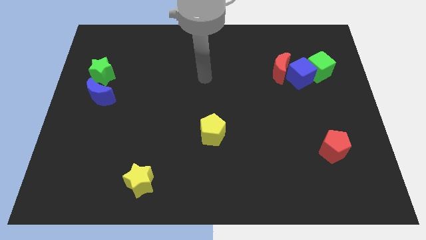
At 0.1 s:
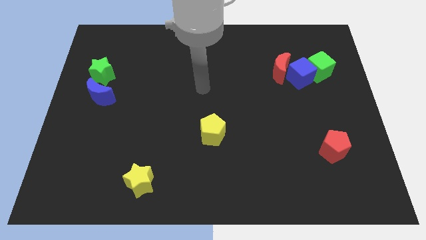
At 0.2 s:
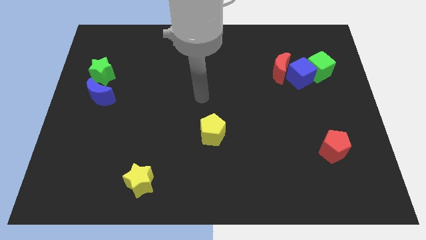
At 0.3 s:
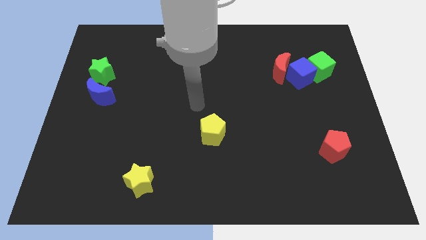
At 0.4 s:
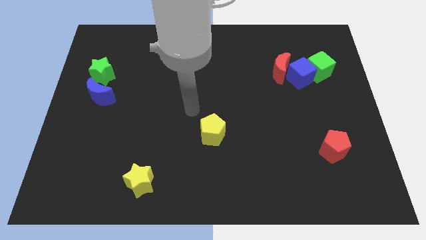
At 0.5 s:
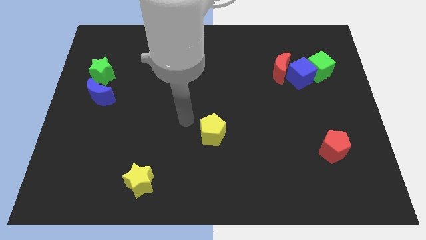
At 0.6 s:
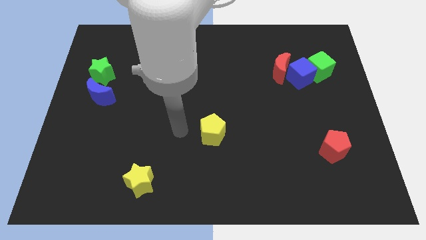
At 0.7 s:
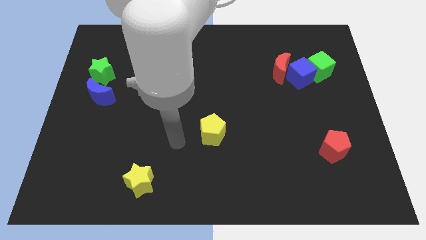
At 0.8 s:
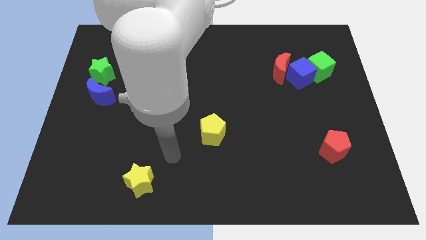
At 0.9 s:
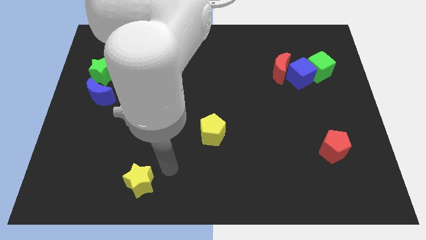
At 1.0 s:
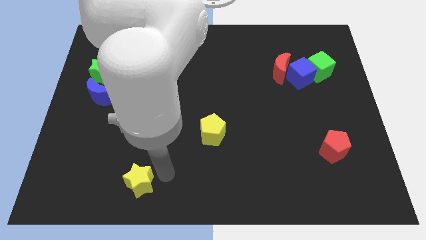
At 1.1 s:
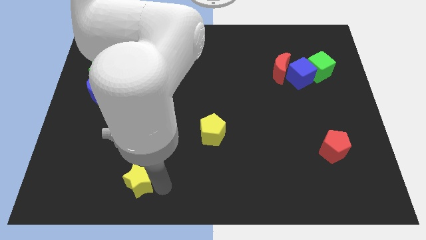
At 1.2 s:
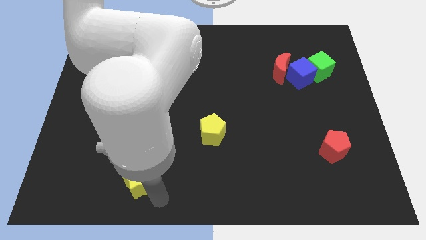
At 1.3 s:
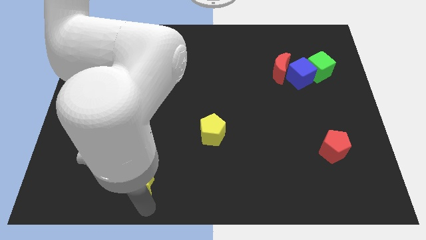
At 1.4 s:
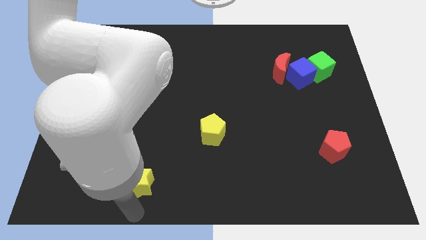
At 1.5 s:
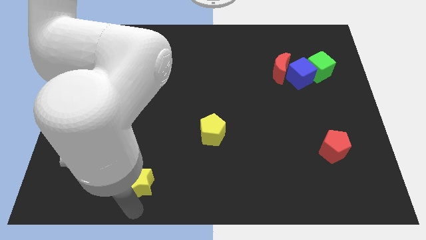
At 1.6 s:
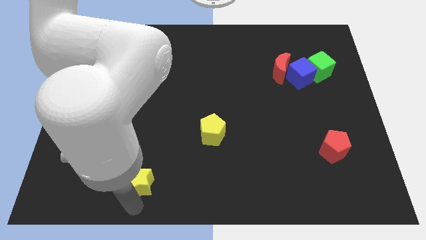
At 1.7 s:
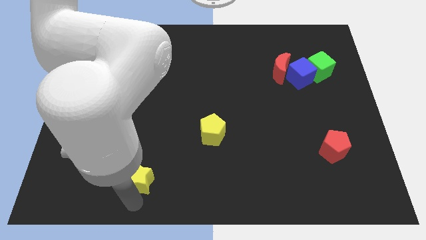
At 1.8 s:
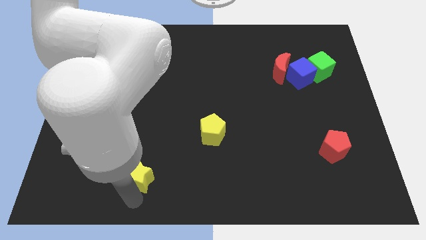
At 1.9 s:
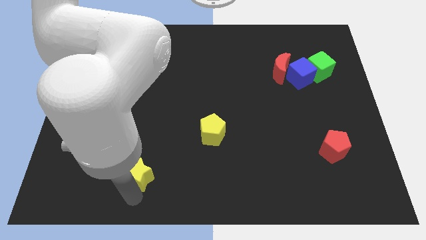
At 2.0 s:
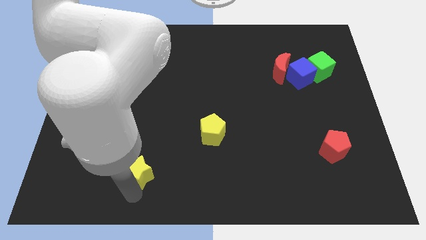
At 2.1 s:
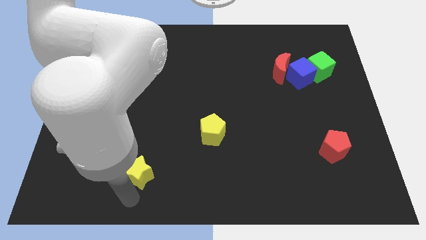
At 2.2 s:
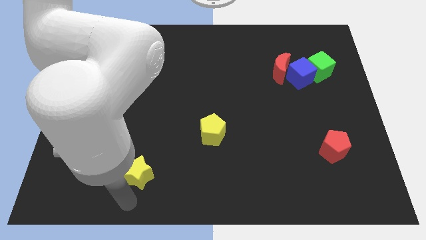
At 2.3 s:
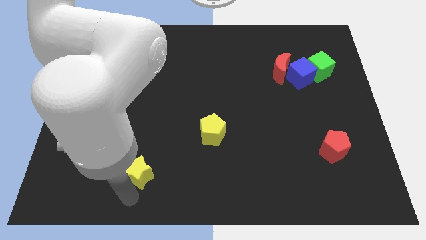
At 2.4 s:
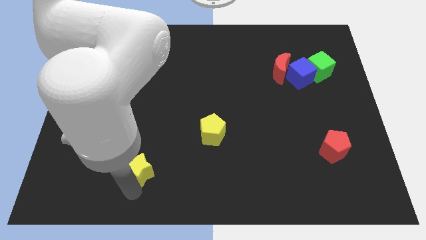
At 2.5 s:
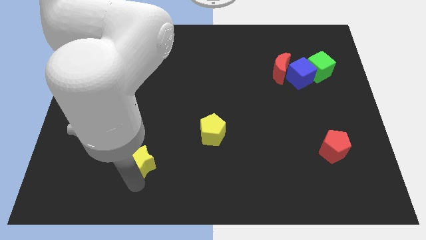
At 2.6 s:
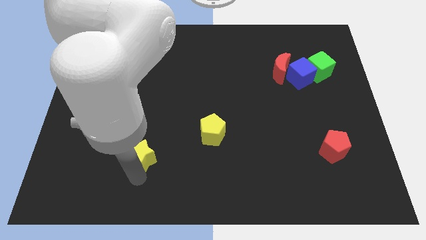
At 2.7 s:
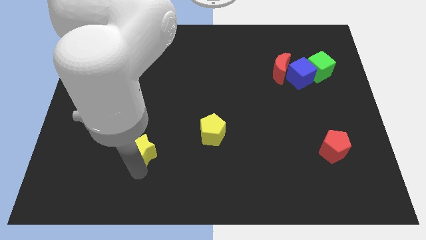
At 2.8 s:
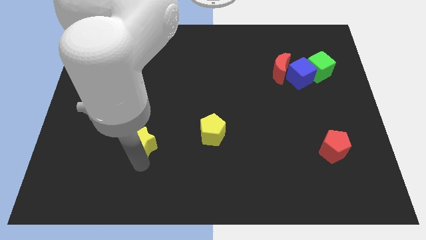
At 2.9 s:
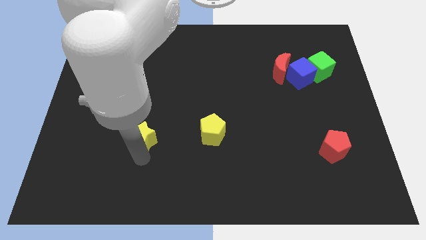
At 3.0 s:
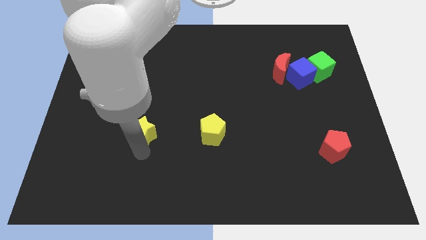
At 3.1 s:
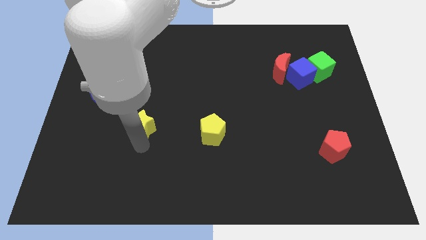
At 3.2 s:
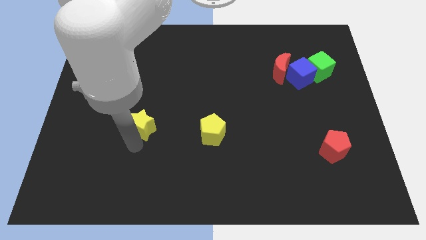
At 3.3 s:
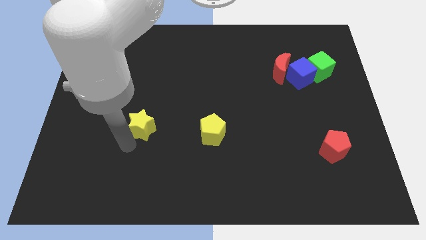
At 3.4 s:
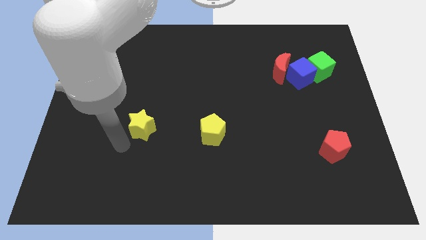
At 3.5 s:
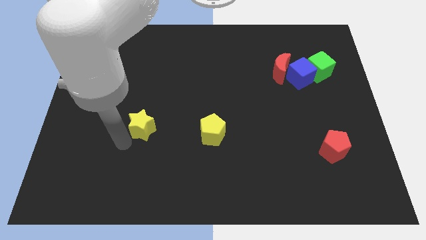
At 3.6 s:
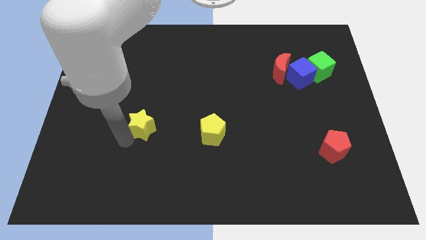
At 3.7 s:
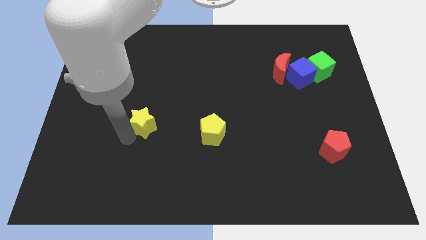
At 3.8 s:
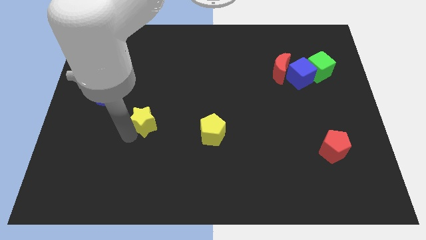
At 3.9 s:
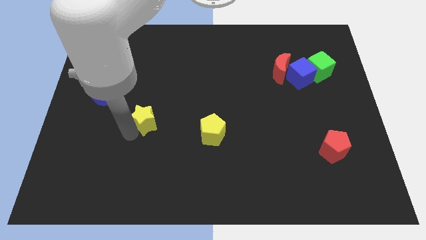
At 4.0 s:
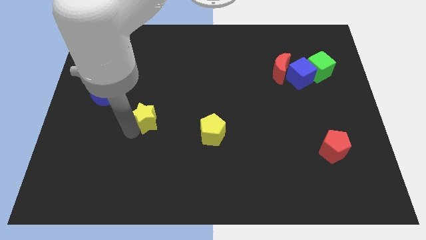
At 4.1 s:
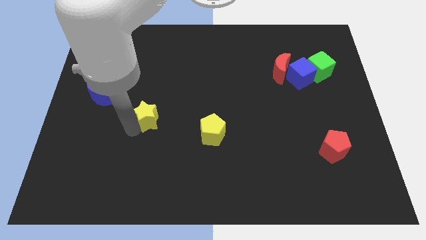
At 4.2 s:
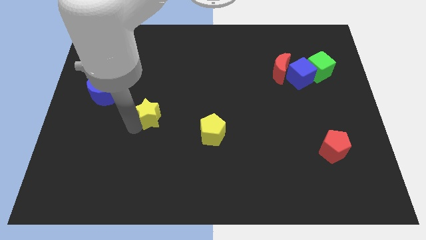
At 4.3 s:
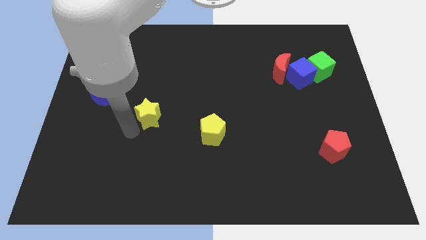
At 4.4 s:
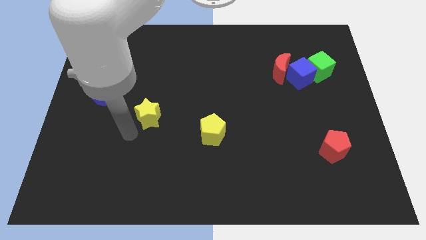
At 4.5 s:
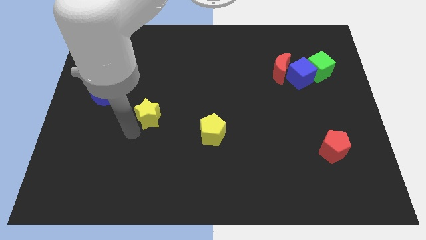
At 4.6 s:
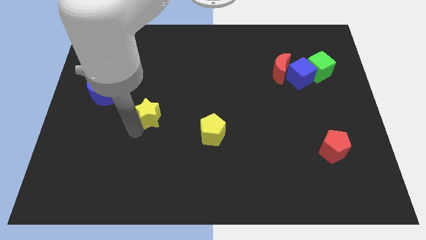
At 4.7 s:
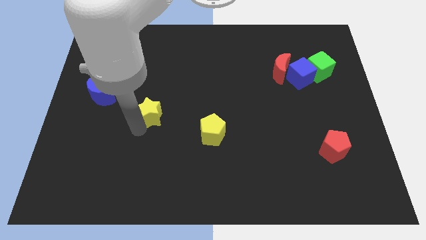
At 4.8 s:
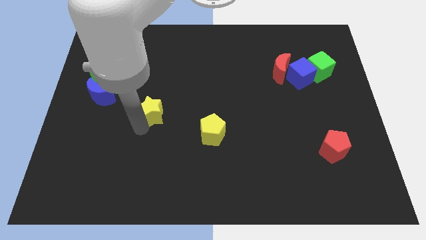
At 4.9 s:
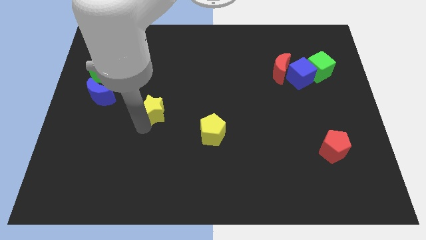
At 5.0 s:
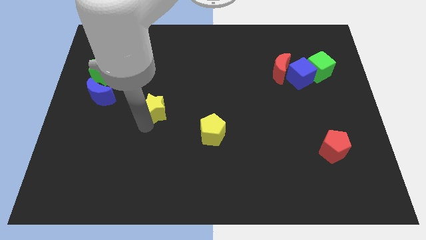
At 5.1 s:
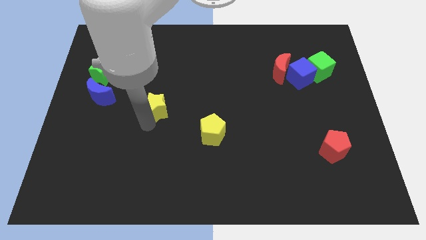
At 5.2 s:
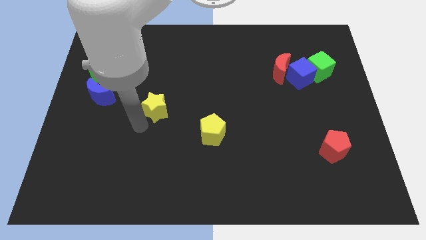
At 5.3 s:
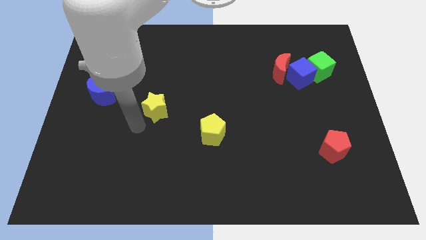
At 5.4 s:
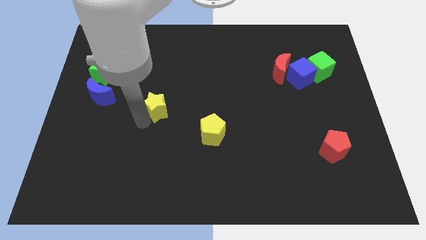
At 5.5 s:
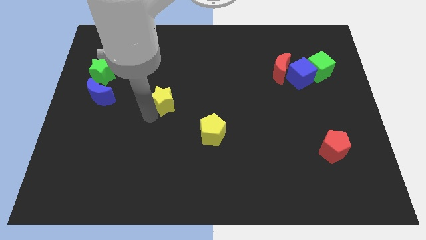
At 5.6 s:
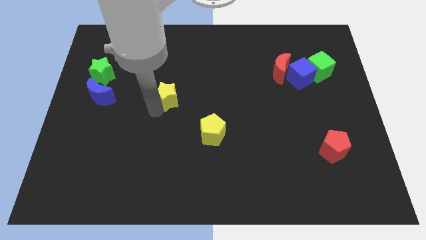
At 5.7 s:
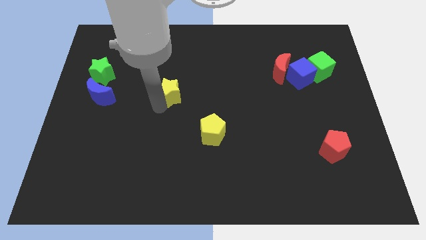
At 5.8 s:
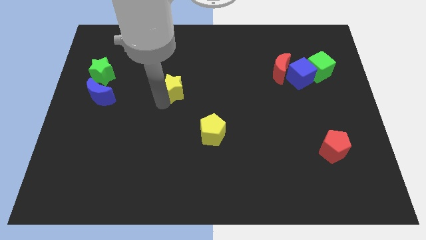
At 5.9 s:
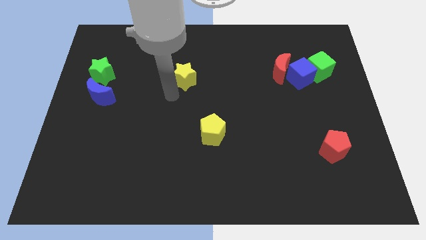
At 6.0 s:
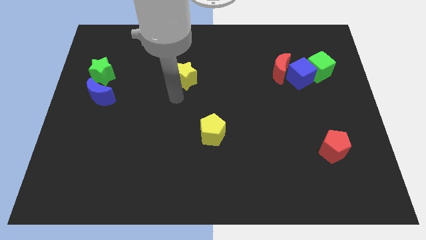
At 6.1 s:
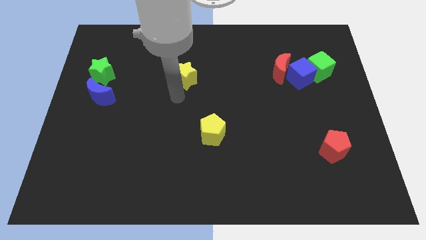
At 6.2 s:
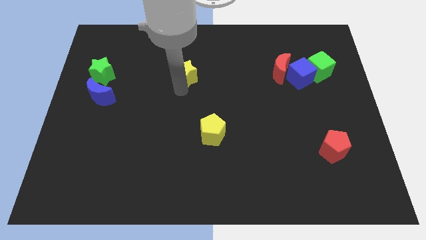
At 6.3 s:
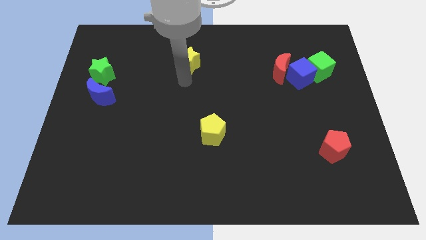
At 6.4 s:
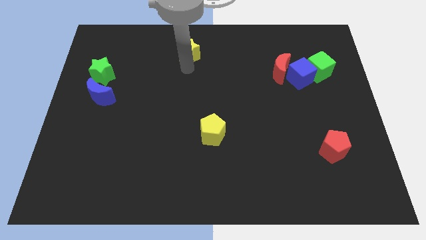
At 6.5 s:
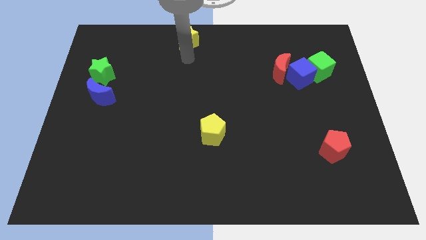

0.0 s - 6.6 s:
push the yellow star to the top
